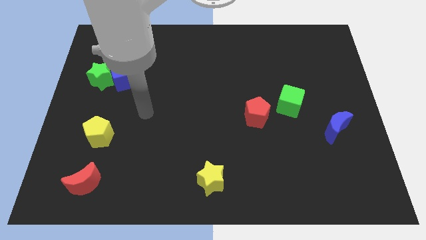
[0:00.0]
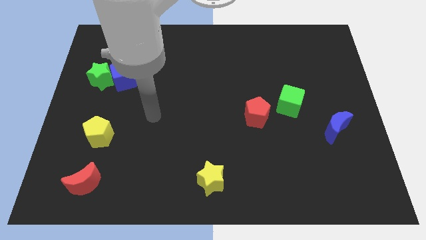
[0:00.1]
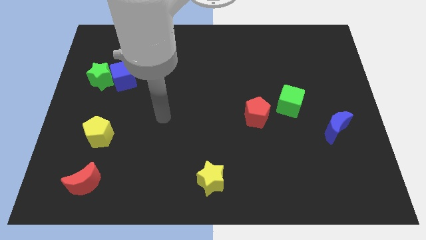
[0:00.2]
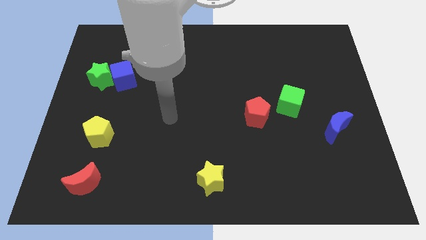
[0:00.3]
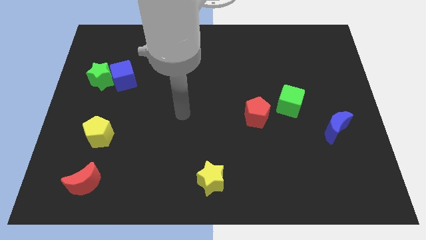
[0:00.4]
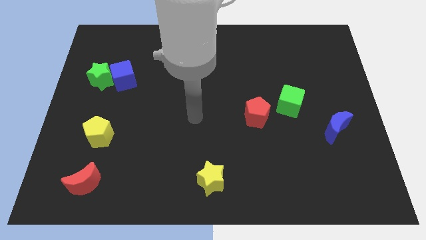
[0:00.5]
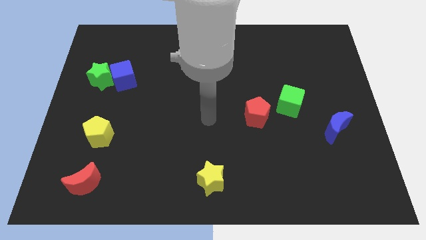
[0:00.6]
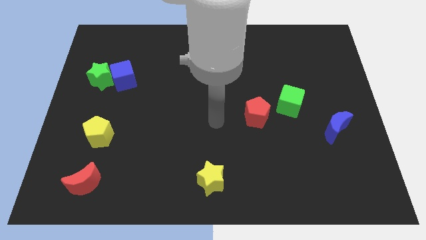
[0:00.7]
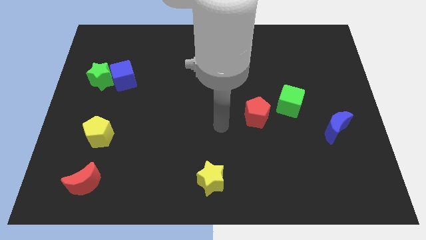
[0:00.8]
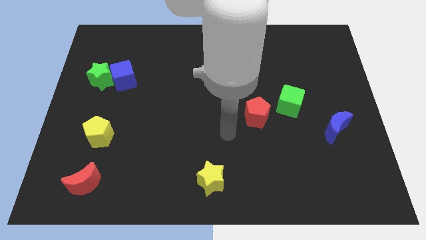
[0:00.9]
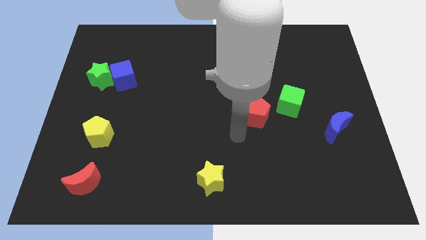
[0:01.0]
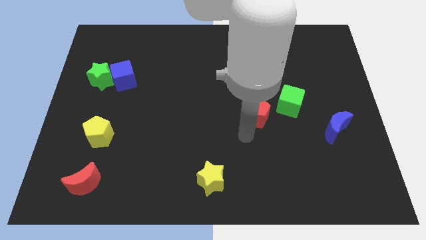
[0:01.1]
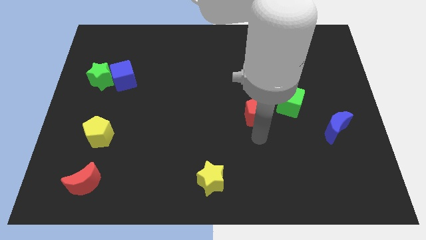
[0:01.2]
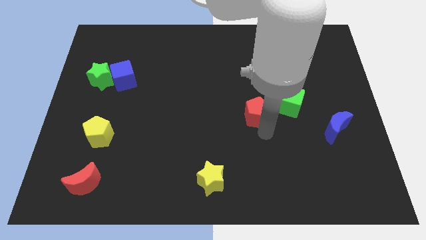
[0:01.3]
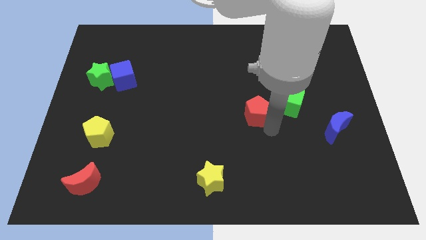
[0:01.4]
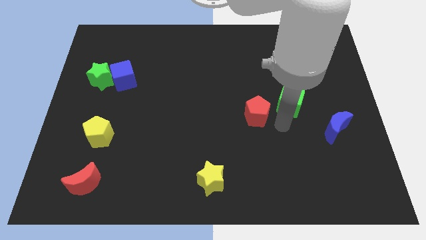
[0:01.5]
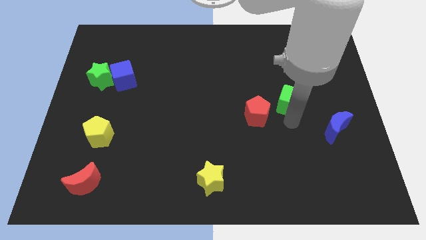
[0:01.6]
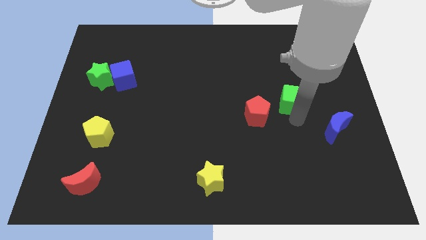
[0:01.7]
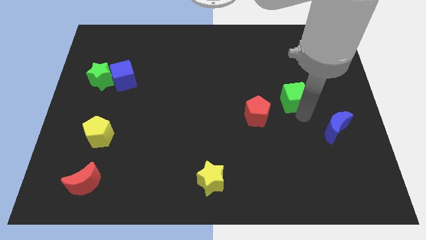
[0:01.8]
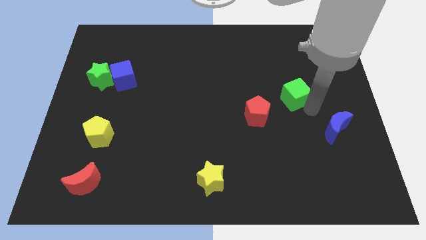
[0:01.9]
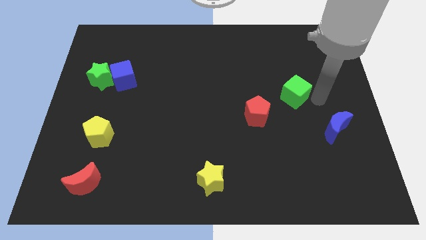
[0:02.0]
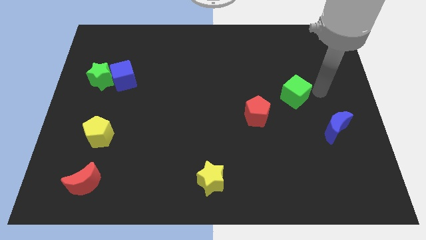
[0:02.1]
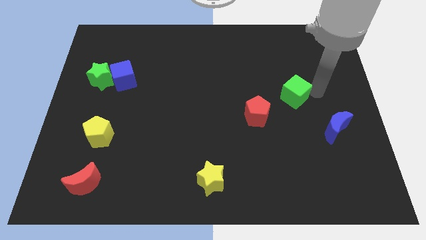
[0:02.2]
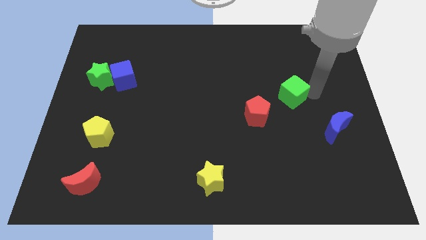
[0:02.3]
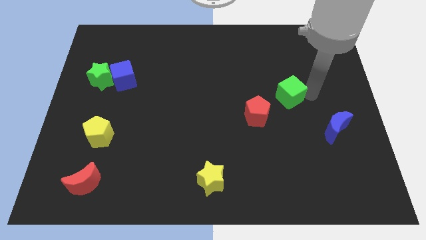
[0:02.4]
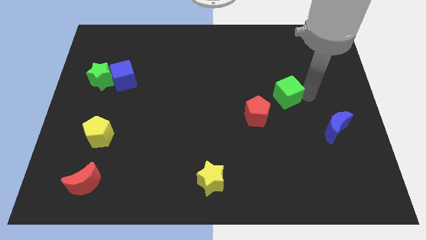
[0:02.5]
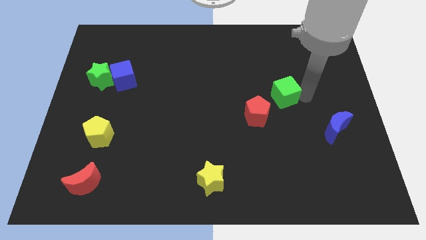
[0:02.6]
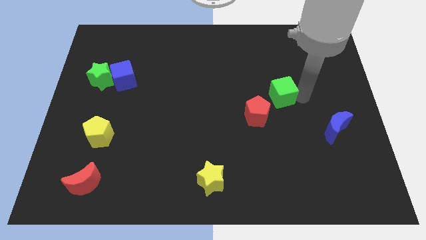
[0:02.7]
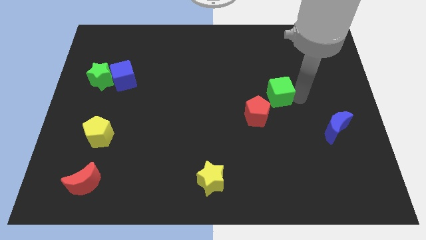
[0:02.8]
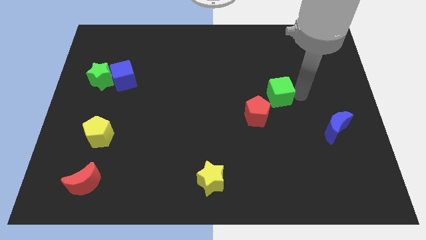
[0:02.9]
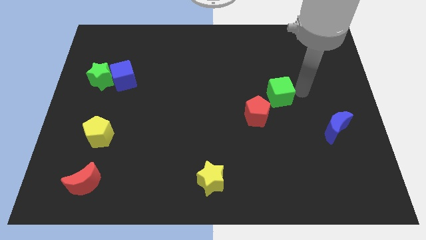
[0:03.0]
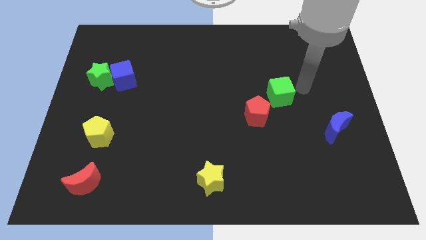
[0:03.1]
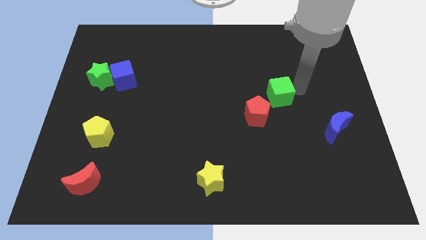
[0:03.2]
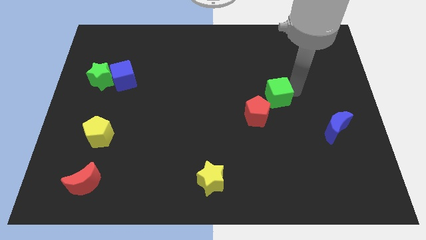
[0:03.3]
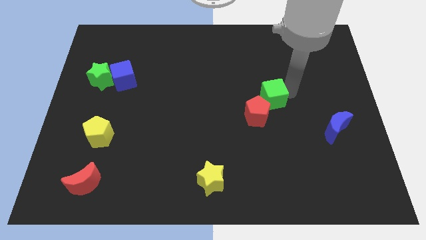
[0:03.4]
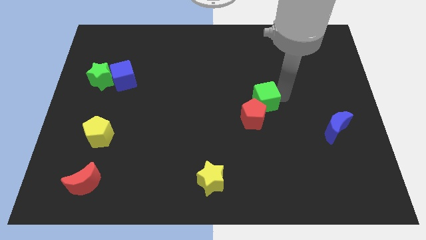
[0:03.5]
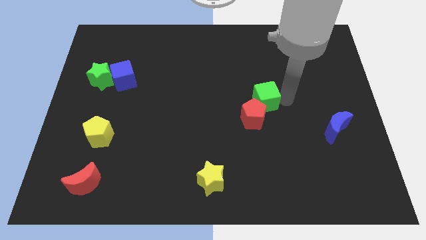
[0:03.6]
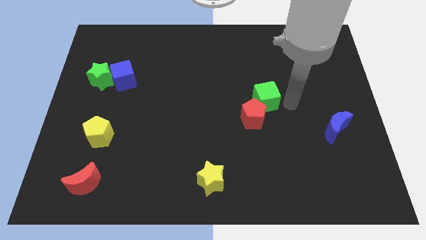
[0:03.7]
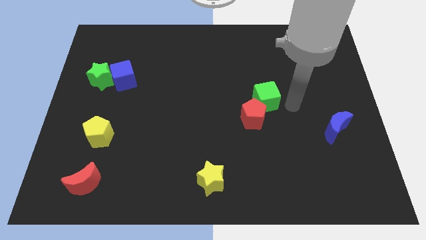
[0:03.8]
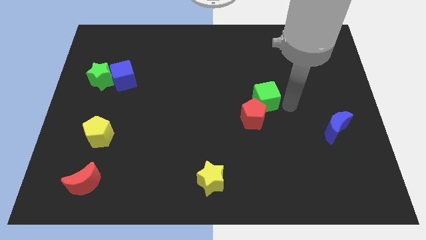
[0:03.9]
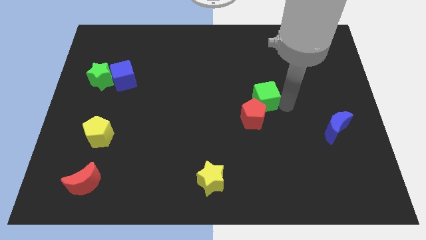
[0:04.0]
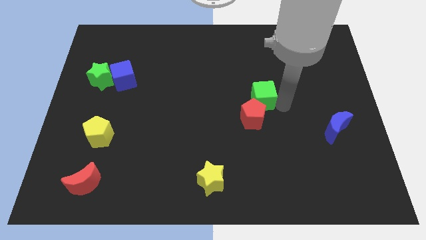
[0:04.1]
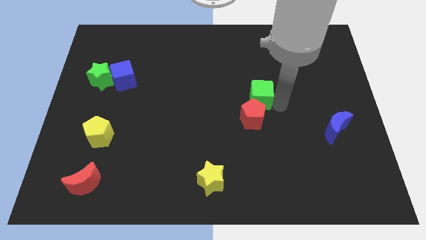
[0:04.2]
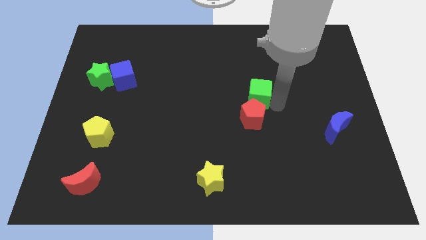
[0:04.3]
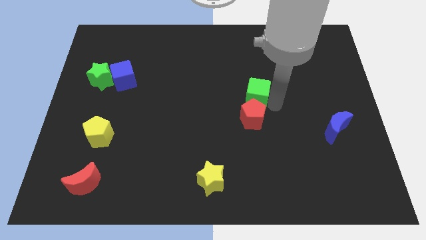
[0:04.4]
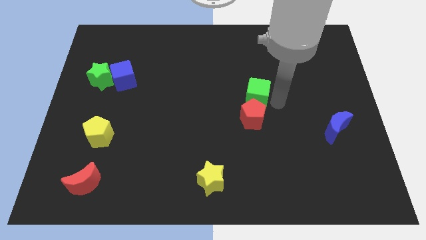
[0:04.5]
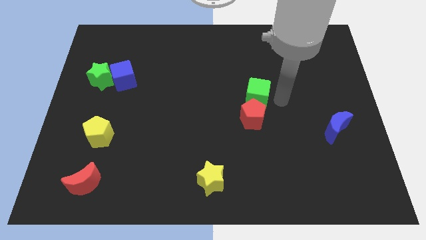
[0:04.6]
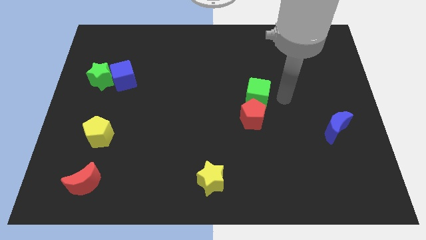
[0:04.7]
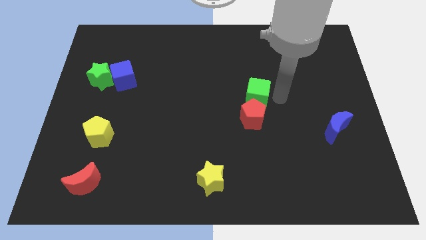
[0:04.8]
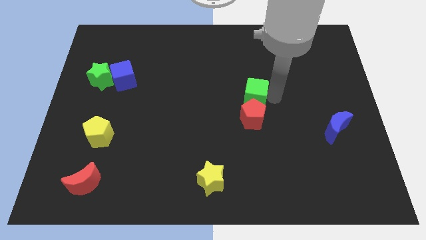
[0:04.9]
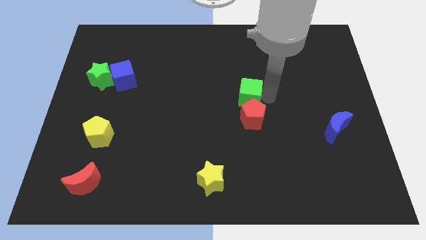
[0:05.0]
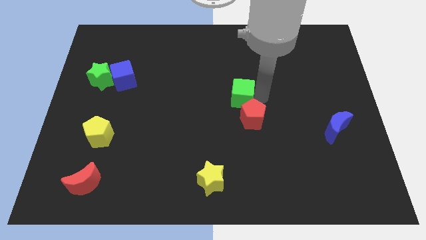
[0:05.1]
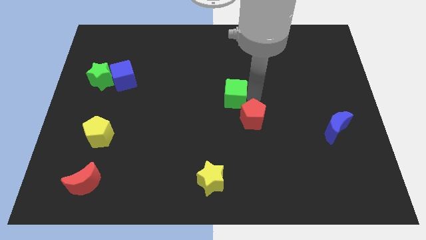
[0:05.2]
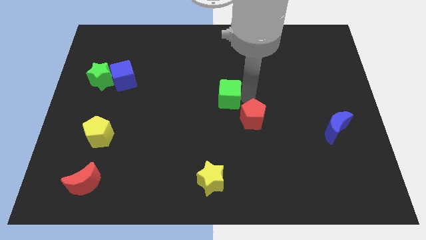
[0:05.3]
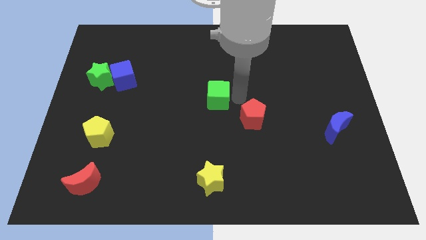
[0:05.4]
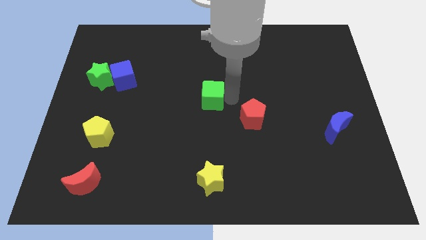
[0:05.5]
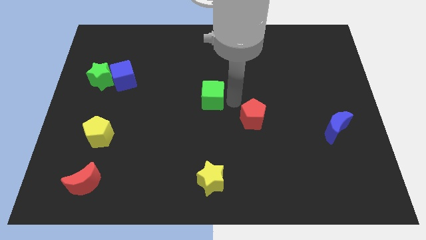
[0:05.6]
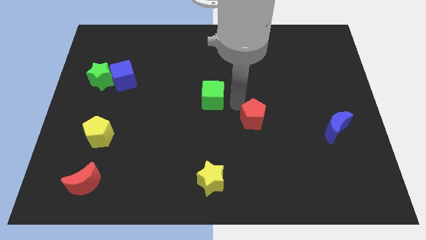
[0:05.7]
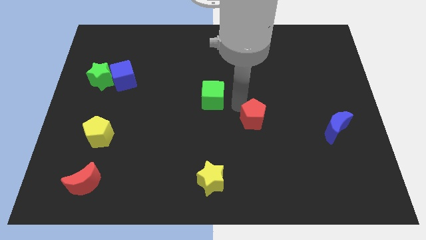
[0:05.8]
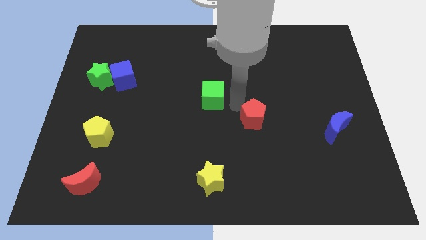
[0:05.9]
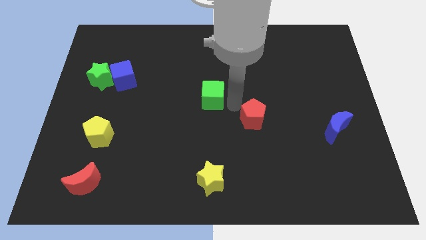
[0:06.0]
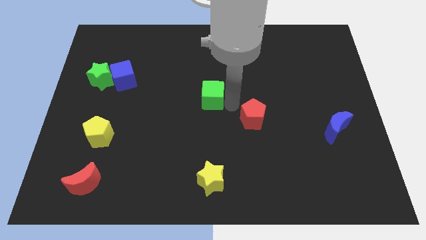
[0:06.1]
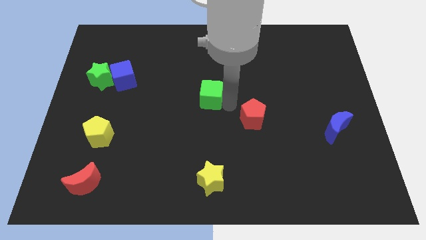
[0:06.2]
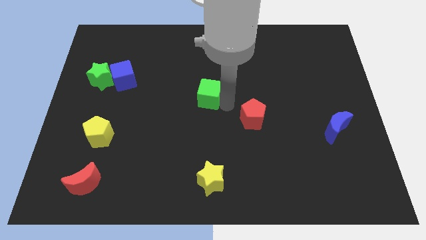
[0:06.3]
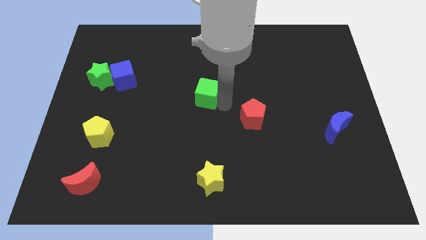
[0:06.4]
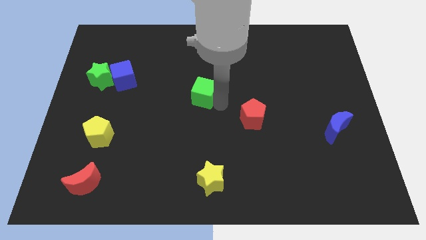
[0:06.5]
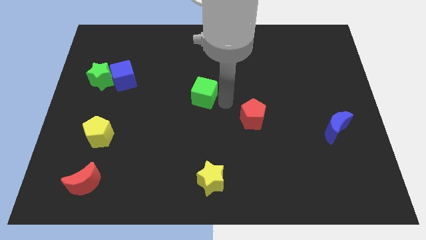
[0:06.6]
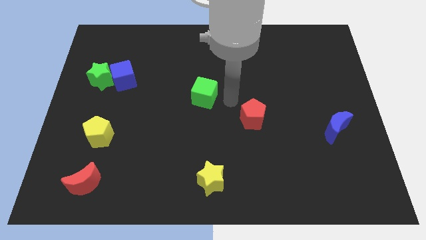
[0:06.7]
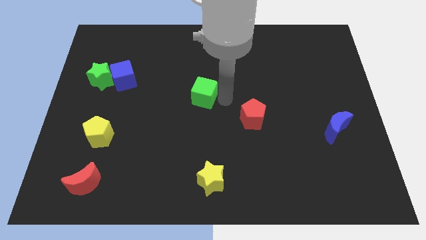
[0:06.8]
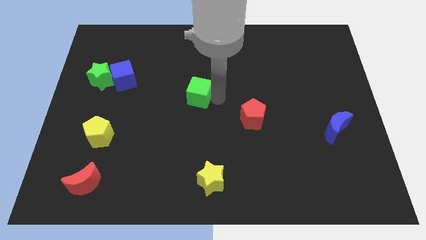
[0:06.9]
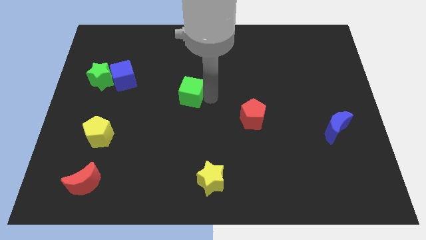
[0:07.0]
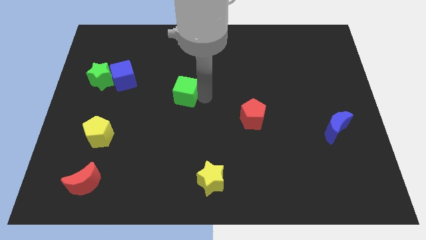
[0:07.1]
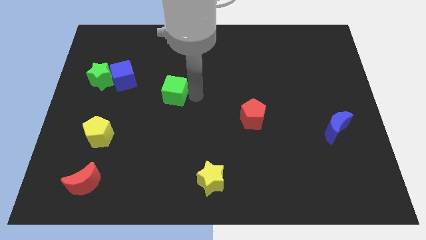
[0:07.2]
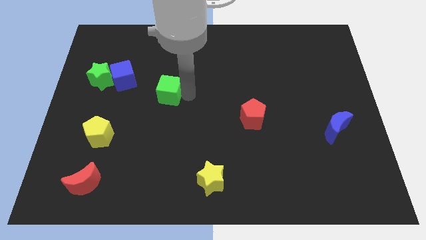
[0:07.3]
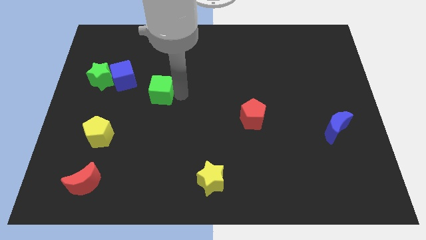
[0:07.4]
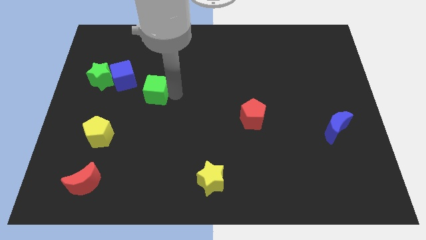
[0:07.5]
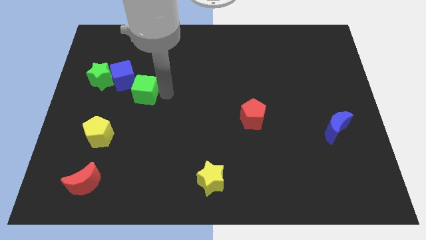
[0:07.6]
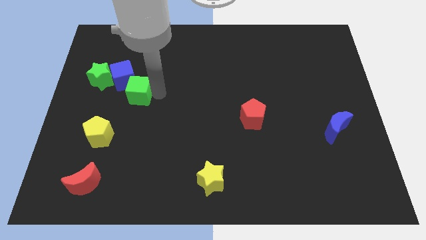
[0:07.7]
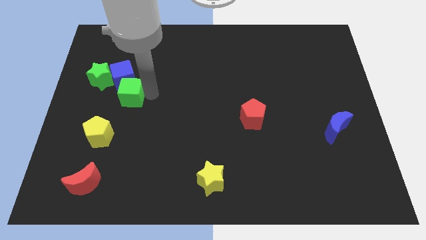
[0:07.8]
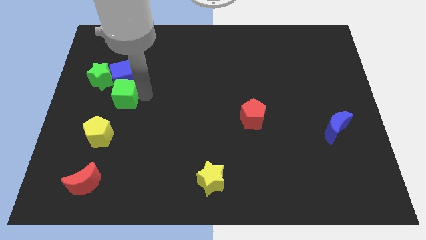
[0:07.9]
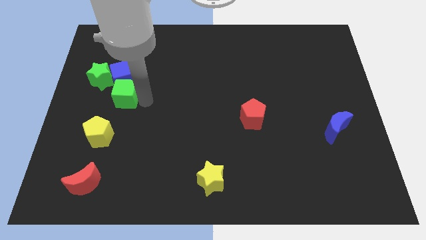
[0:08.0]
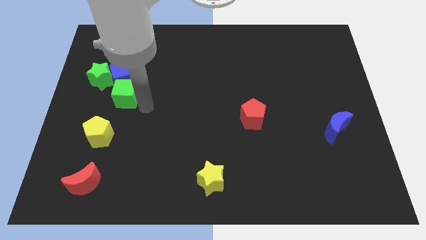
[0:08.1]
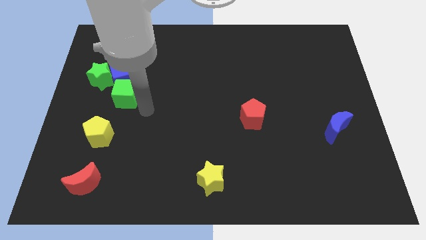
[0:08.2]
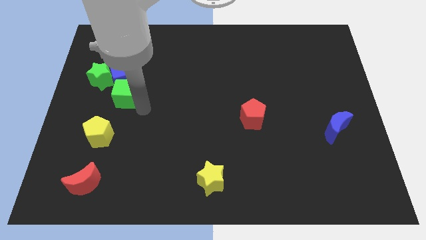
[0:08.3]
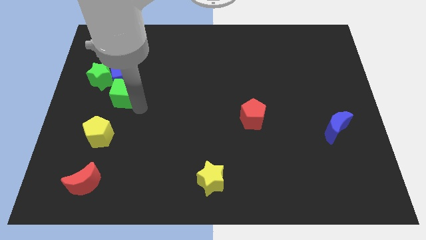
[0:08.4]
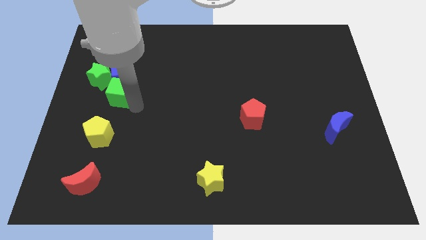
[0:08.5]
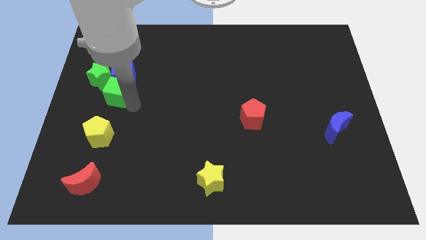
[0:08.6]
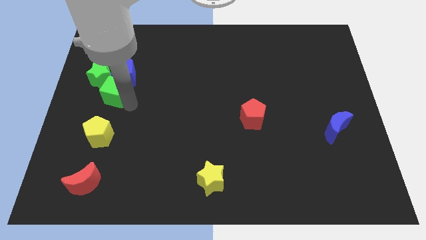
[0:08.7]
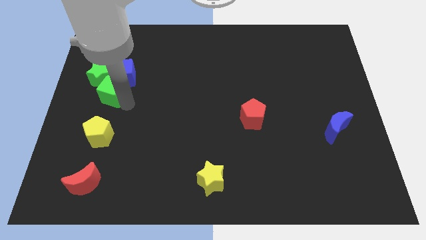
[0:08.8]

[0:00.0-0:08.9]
put the green cube close to the green star
